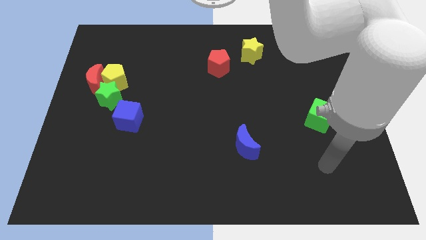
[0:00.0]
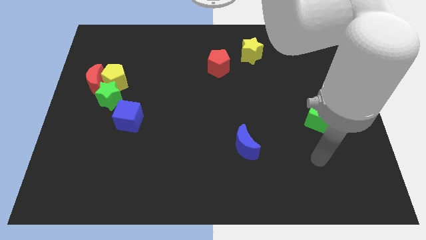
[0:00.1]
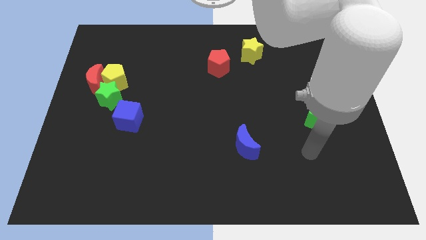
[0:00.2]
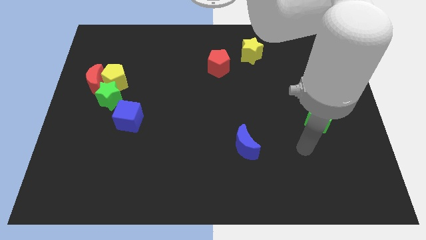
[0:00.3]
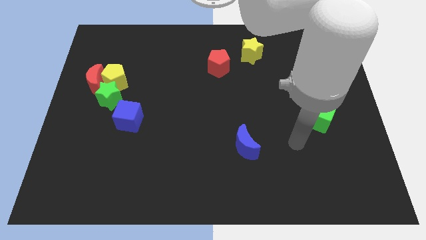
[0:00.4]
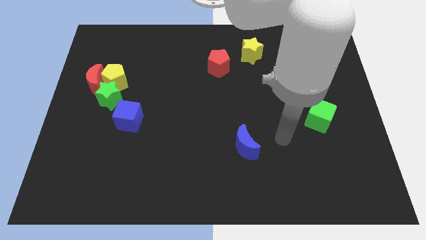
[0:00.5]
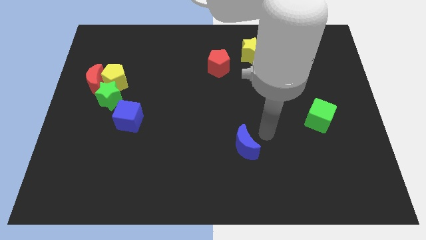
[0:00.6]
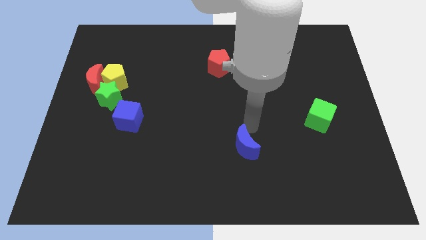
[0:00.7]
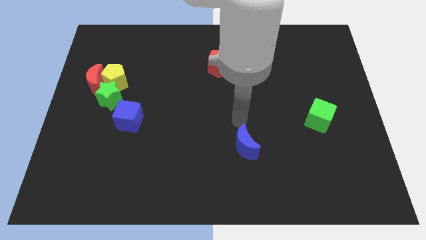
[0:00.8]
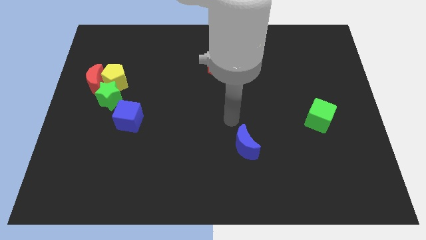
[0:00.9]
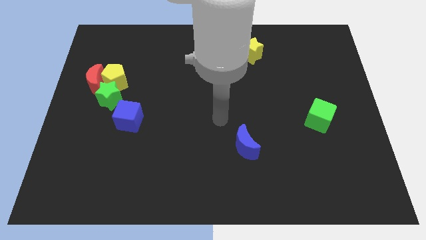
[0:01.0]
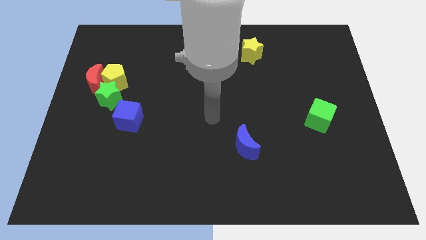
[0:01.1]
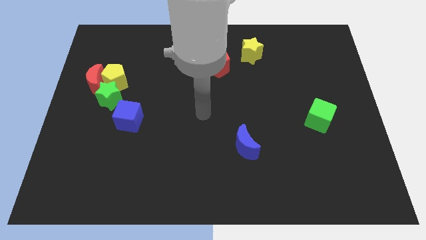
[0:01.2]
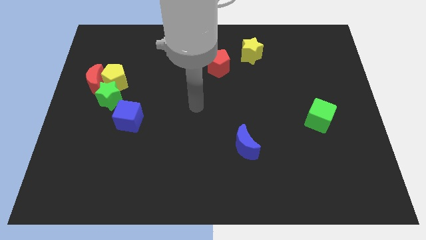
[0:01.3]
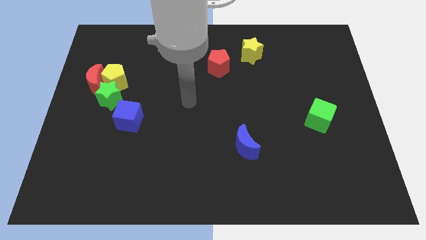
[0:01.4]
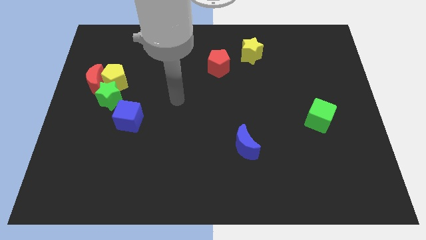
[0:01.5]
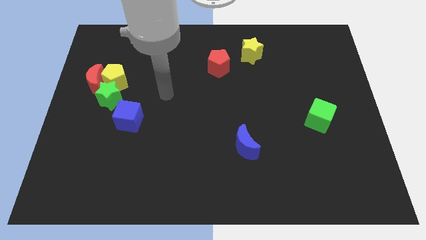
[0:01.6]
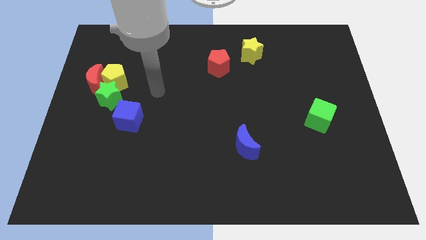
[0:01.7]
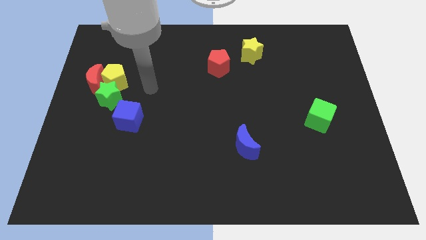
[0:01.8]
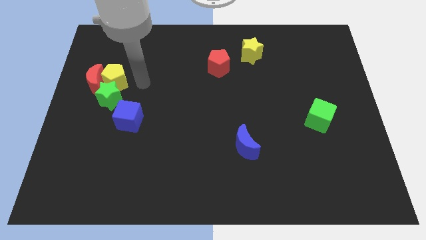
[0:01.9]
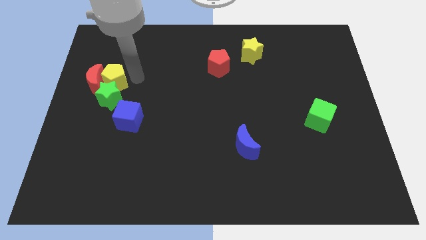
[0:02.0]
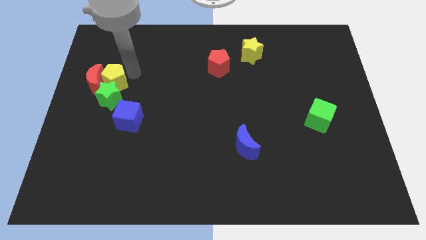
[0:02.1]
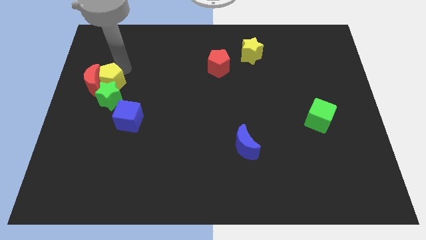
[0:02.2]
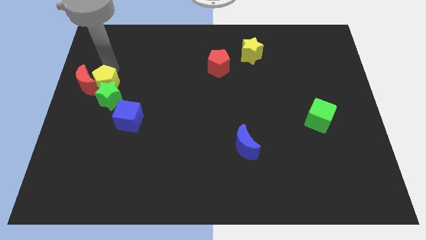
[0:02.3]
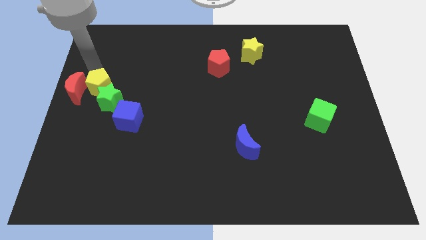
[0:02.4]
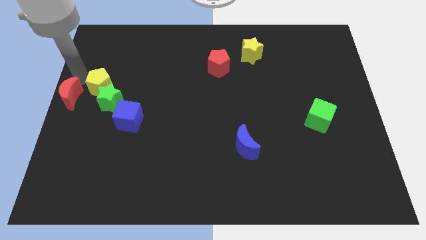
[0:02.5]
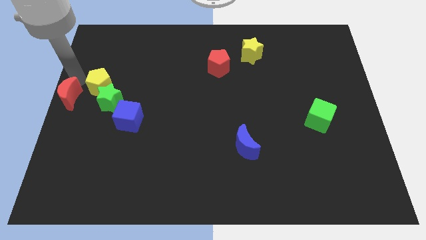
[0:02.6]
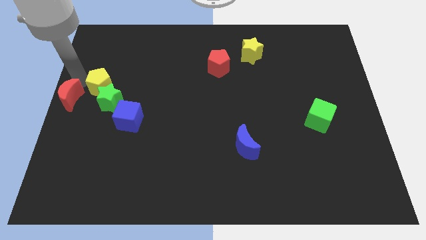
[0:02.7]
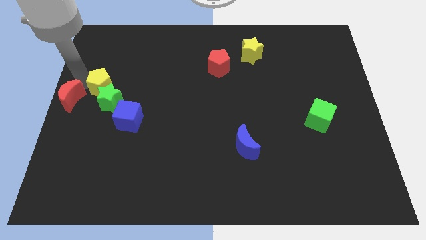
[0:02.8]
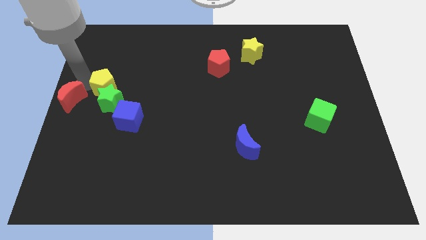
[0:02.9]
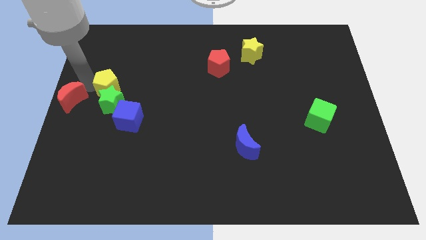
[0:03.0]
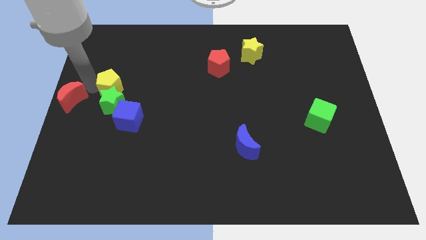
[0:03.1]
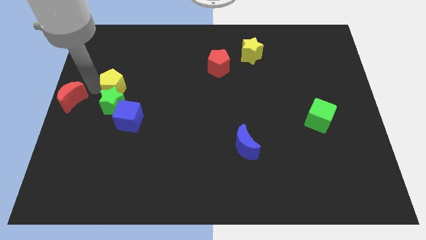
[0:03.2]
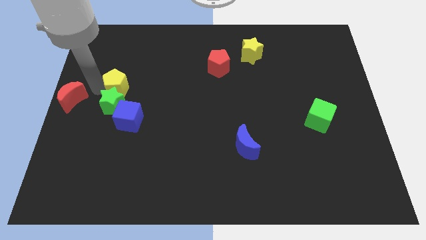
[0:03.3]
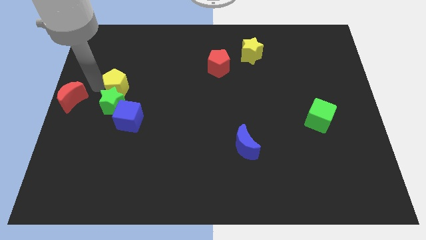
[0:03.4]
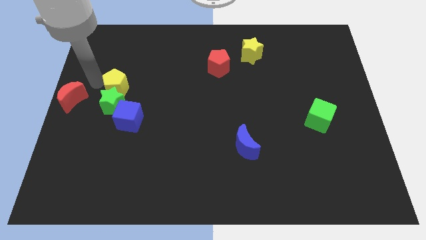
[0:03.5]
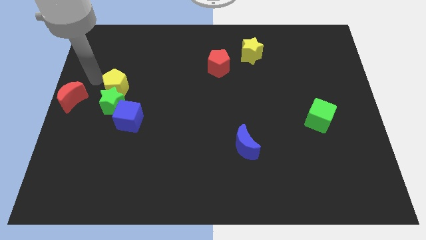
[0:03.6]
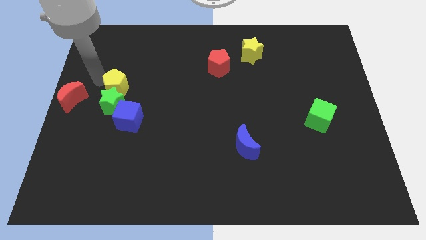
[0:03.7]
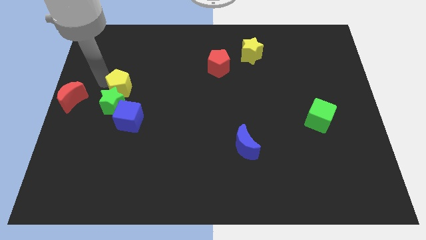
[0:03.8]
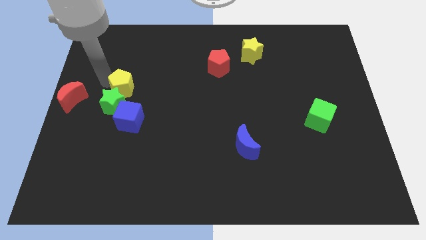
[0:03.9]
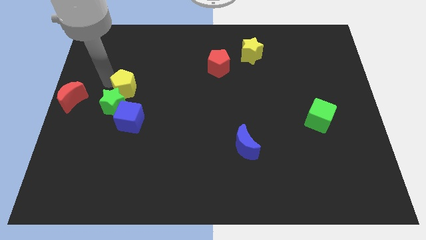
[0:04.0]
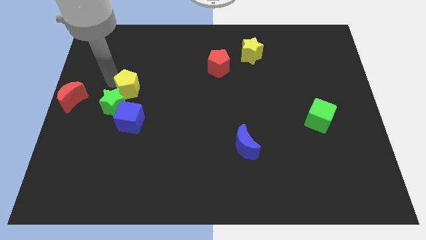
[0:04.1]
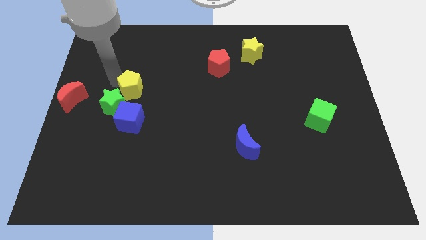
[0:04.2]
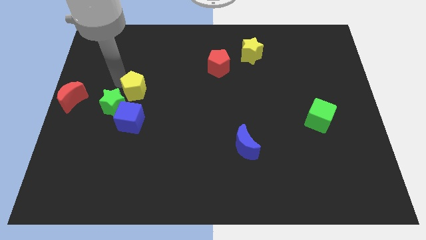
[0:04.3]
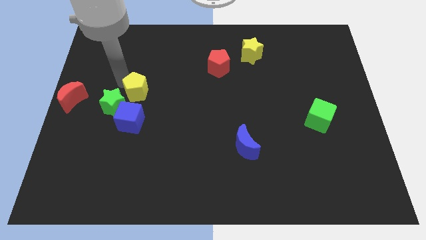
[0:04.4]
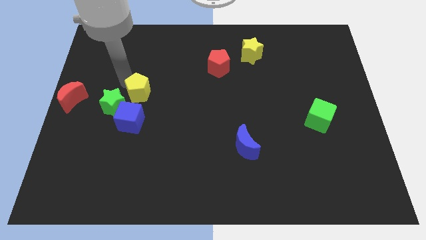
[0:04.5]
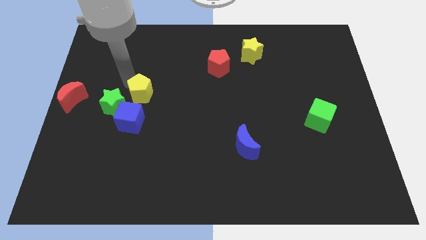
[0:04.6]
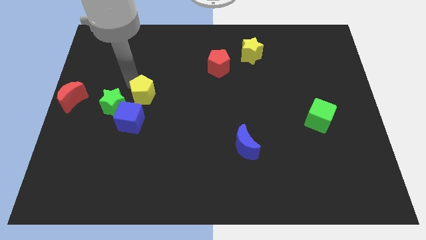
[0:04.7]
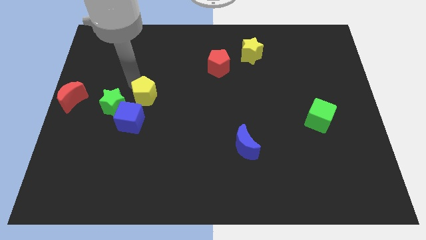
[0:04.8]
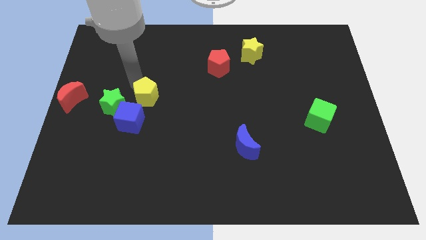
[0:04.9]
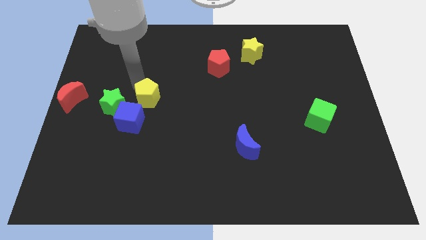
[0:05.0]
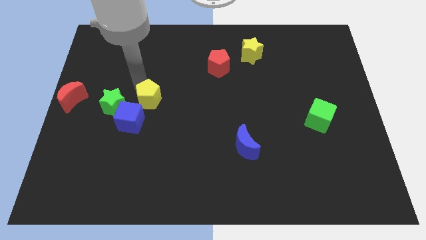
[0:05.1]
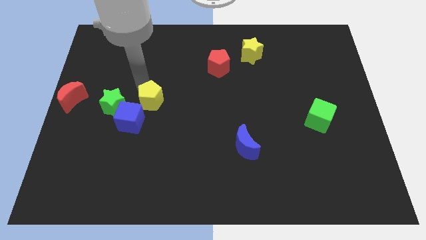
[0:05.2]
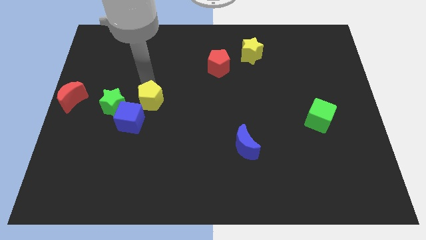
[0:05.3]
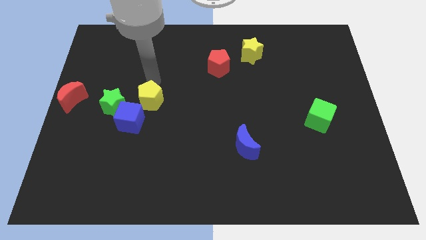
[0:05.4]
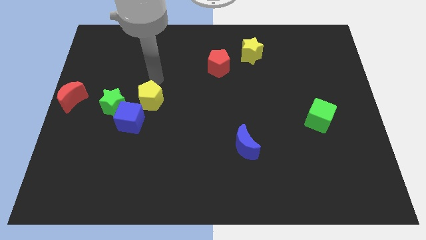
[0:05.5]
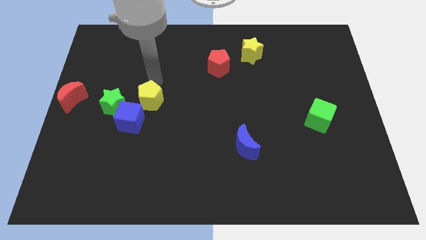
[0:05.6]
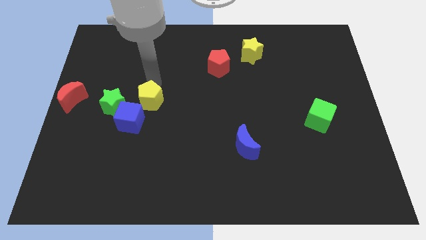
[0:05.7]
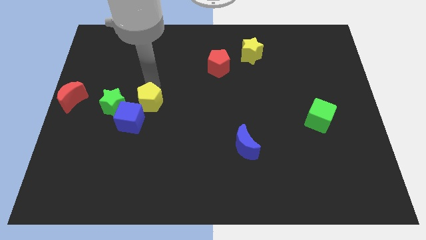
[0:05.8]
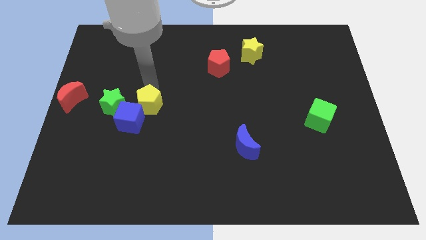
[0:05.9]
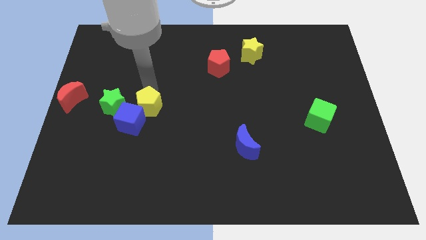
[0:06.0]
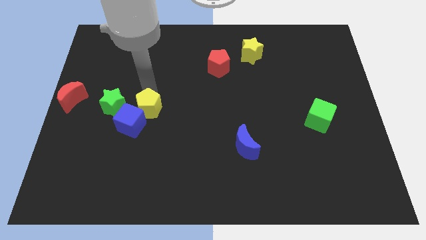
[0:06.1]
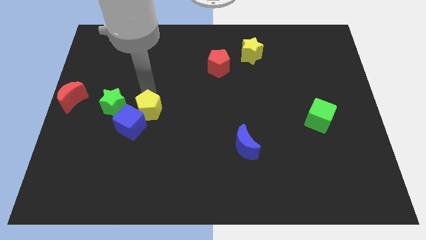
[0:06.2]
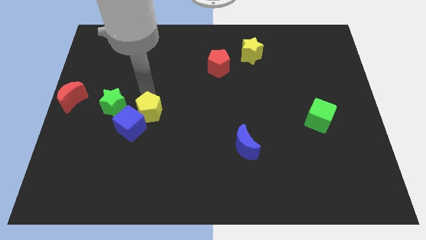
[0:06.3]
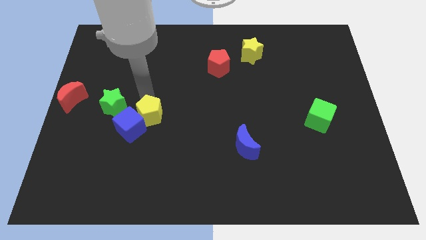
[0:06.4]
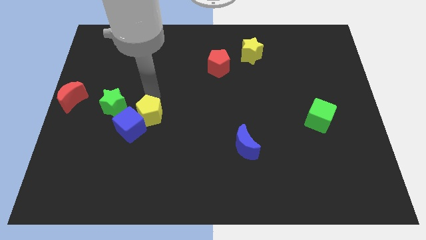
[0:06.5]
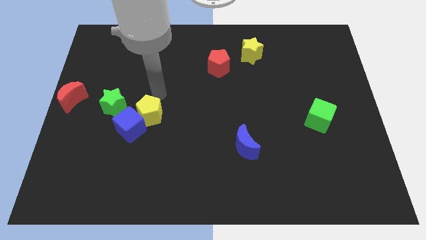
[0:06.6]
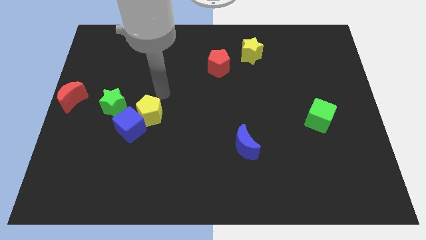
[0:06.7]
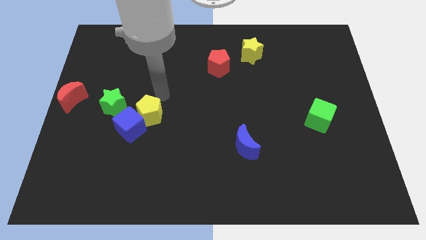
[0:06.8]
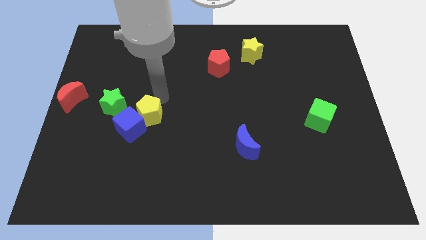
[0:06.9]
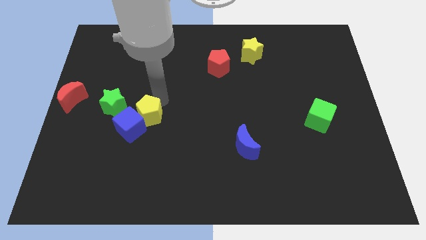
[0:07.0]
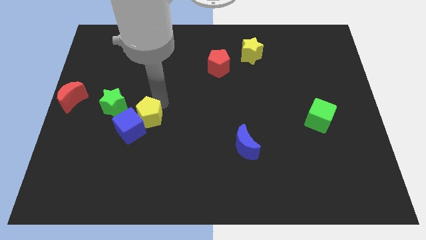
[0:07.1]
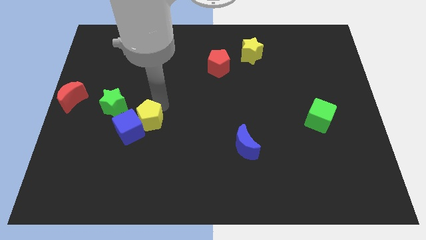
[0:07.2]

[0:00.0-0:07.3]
push the yellow pentagon downwards slightly

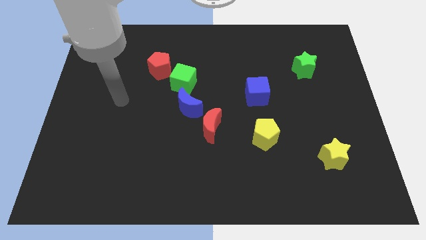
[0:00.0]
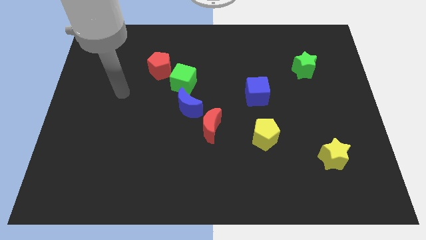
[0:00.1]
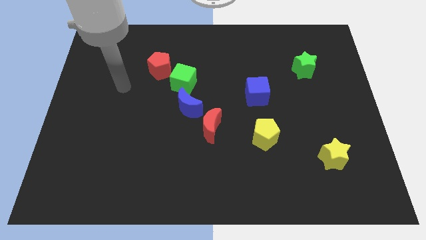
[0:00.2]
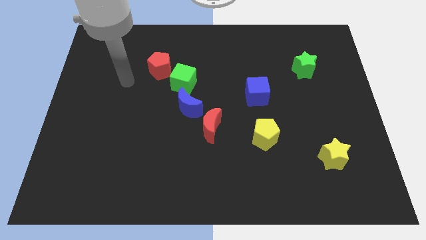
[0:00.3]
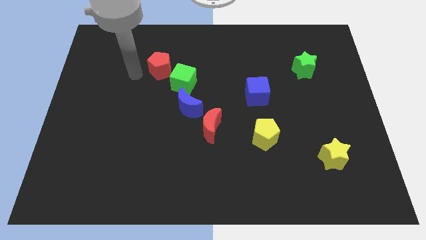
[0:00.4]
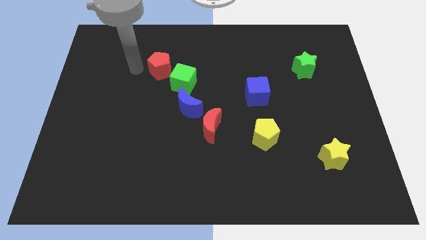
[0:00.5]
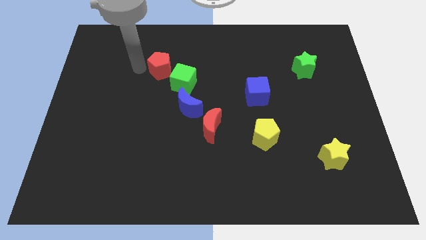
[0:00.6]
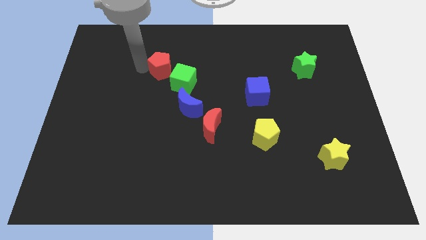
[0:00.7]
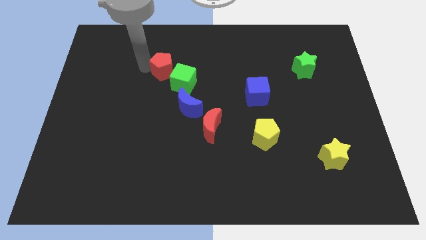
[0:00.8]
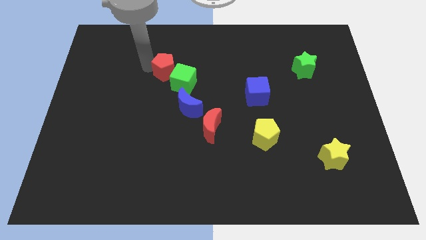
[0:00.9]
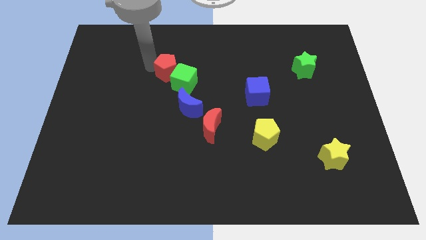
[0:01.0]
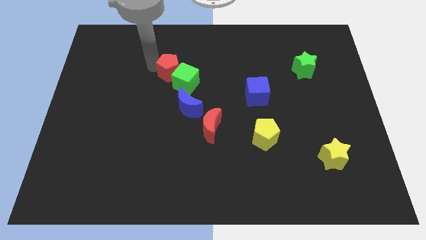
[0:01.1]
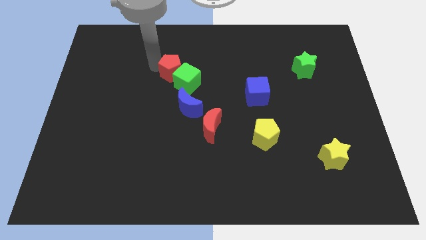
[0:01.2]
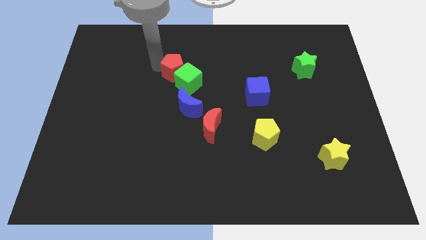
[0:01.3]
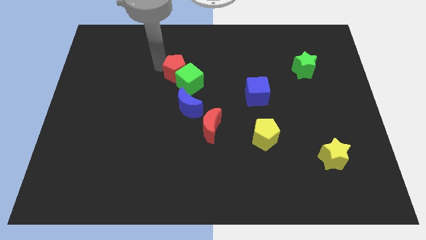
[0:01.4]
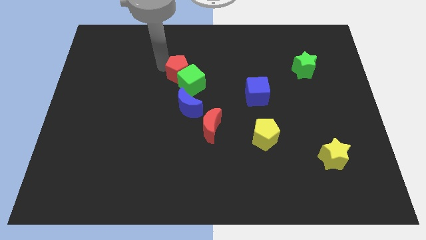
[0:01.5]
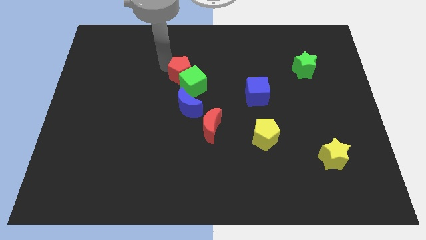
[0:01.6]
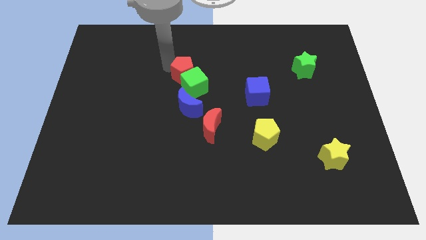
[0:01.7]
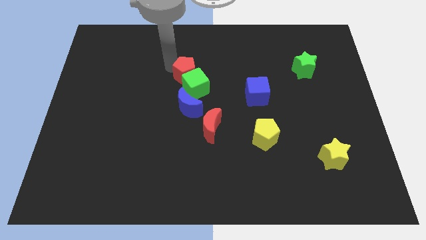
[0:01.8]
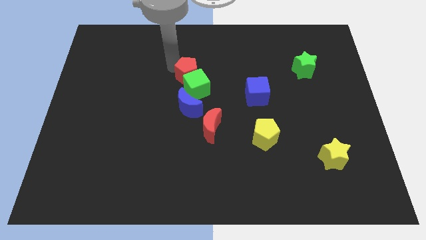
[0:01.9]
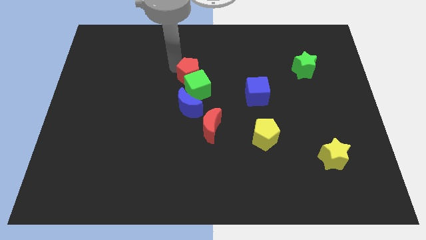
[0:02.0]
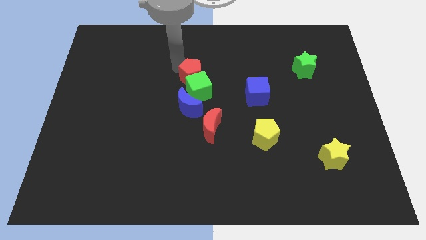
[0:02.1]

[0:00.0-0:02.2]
slightly push the red pentagon down and then right
